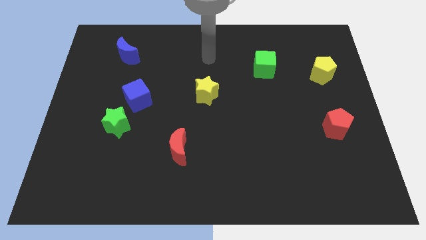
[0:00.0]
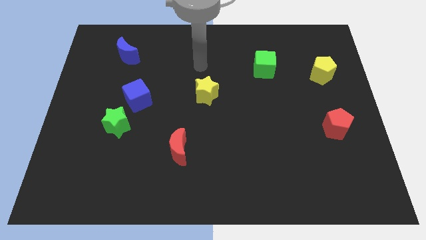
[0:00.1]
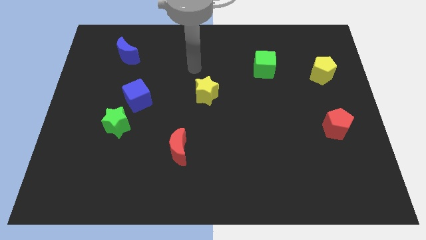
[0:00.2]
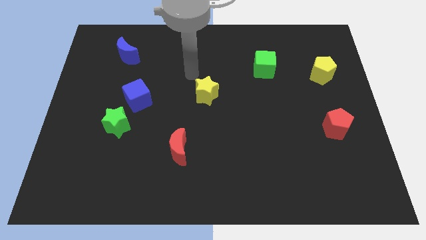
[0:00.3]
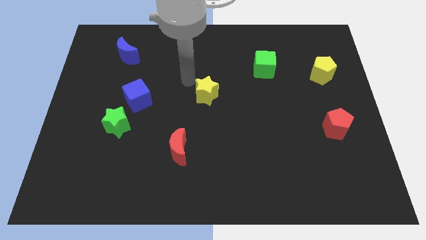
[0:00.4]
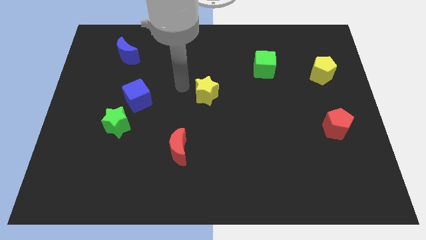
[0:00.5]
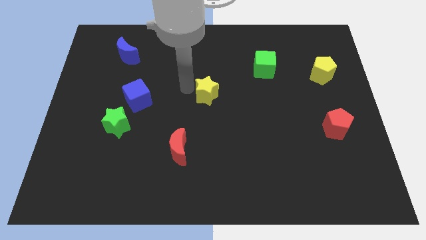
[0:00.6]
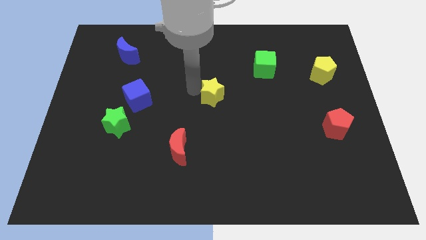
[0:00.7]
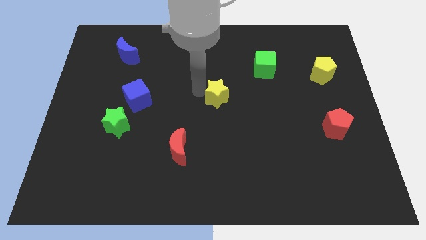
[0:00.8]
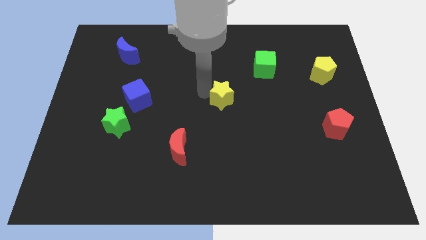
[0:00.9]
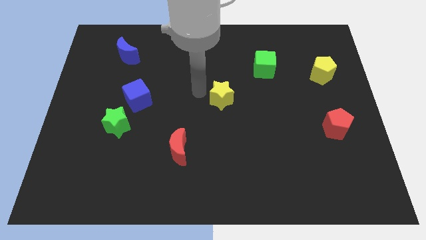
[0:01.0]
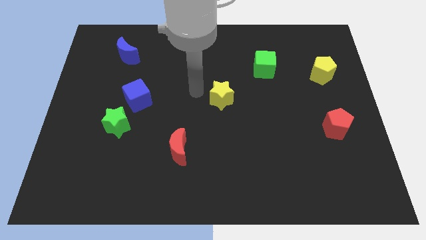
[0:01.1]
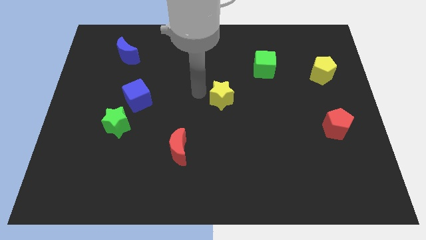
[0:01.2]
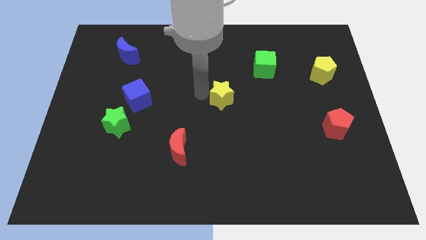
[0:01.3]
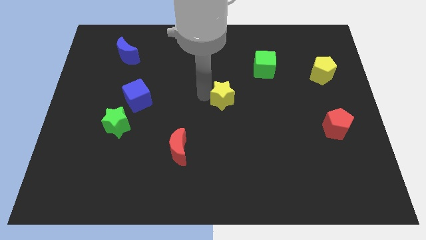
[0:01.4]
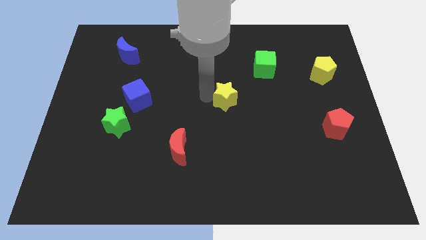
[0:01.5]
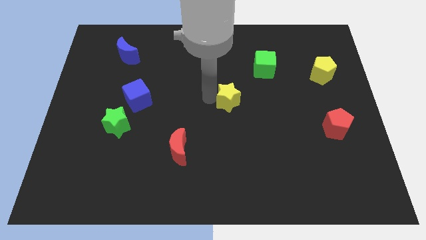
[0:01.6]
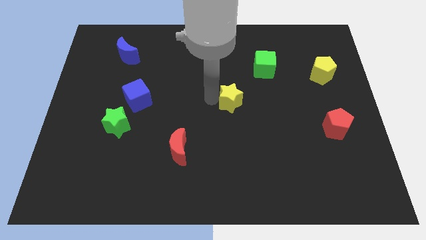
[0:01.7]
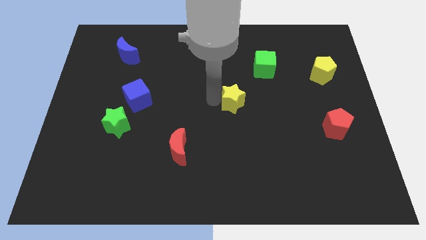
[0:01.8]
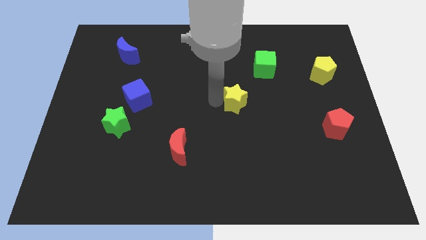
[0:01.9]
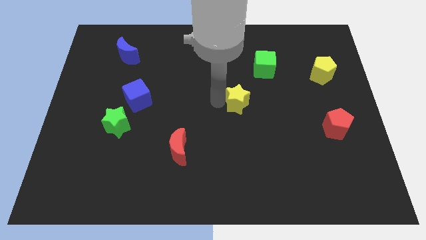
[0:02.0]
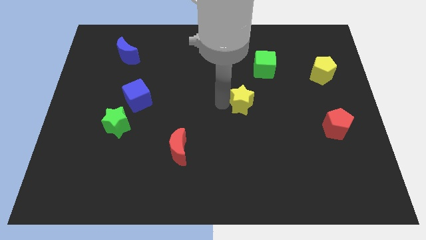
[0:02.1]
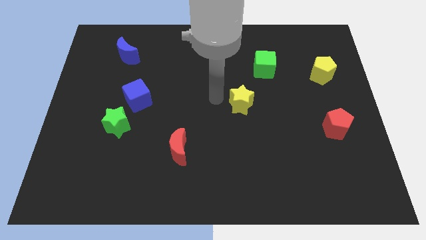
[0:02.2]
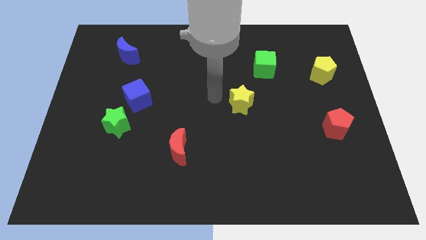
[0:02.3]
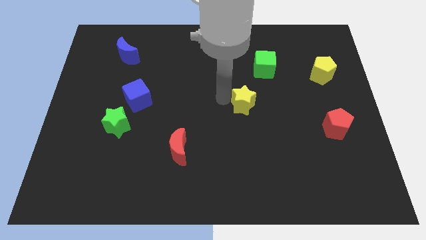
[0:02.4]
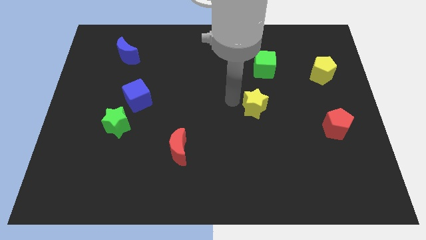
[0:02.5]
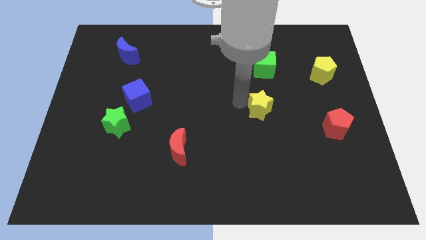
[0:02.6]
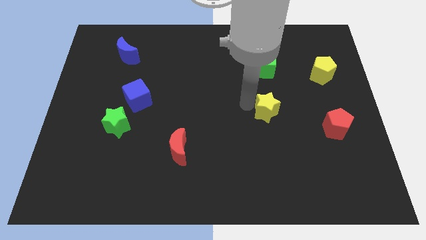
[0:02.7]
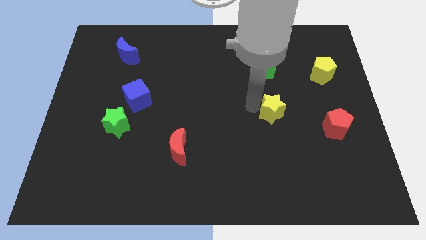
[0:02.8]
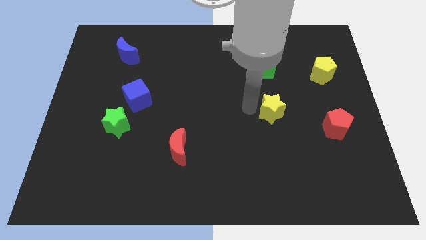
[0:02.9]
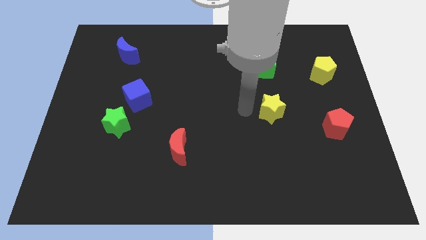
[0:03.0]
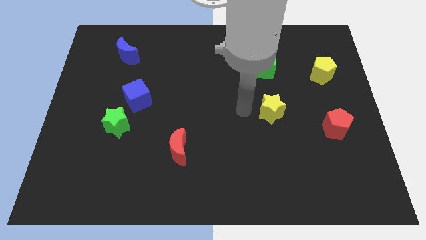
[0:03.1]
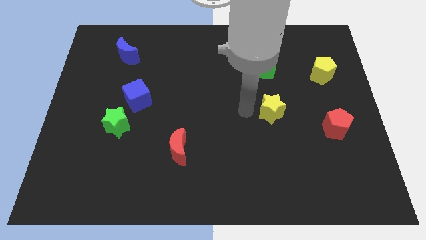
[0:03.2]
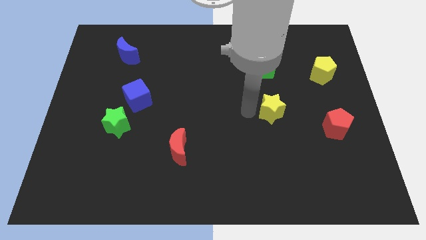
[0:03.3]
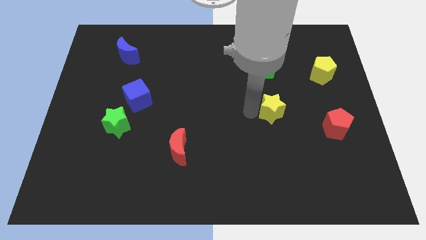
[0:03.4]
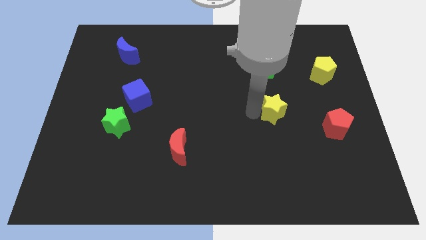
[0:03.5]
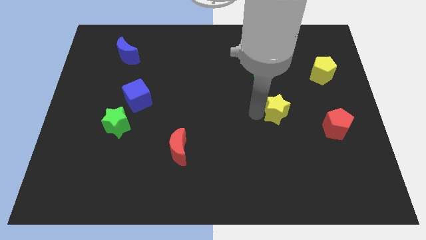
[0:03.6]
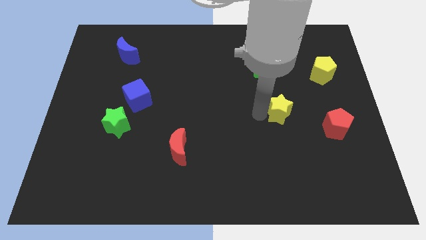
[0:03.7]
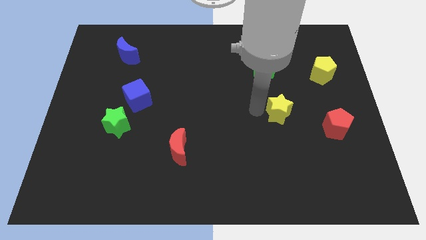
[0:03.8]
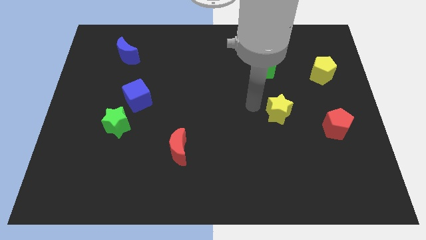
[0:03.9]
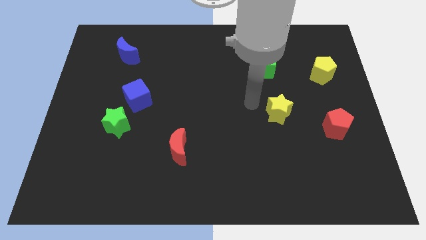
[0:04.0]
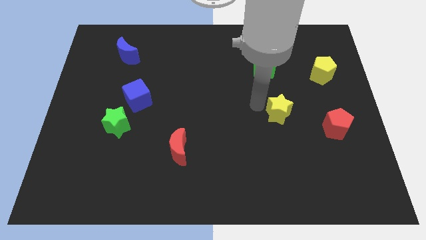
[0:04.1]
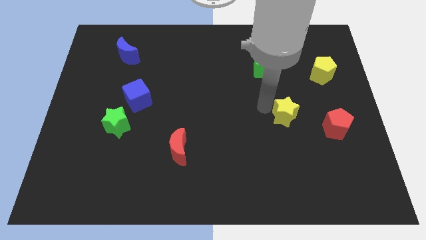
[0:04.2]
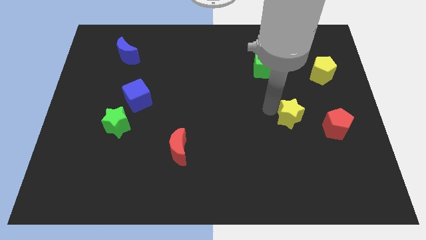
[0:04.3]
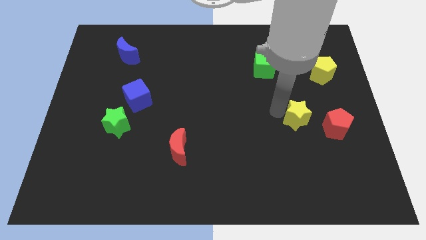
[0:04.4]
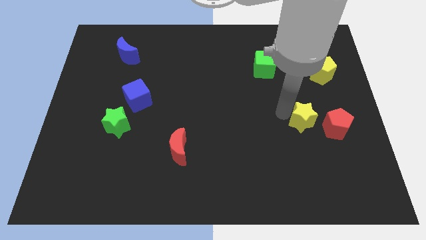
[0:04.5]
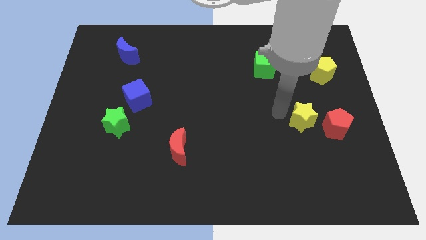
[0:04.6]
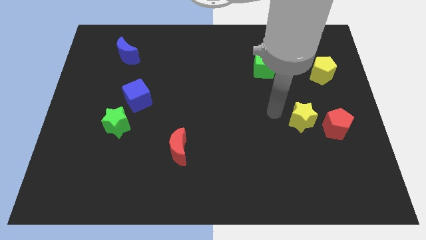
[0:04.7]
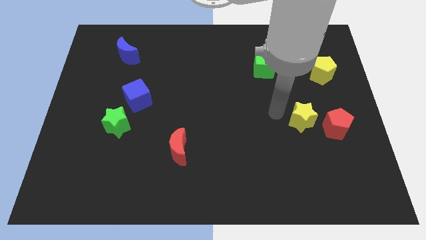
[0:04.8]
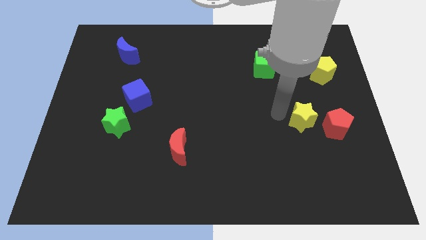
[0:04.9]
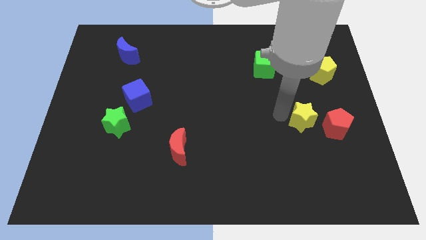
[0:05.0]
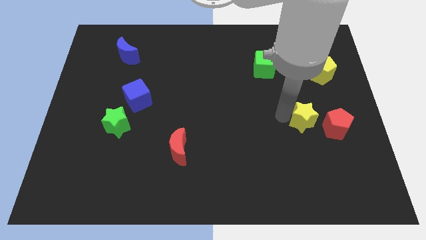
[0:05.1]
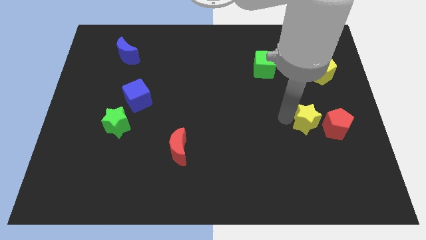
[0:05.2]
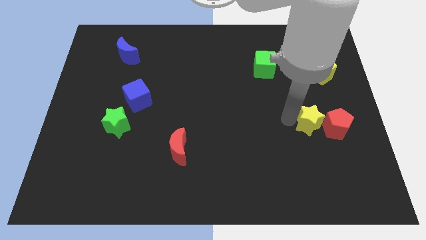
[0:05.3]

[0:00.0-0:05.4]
move the yellow star to the red pentagon

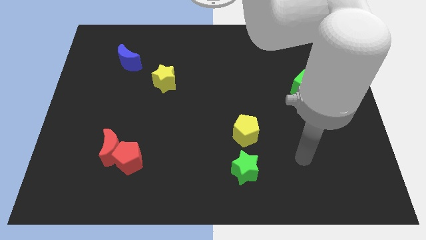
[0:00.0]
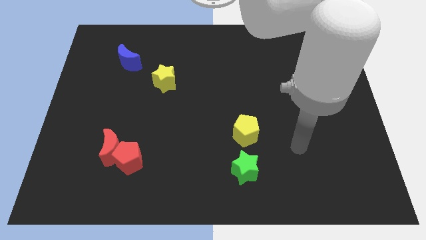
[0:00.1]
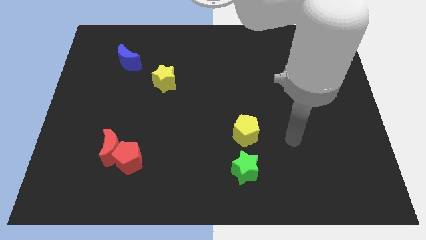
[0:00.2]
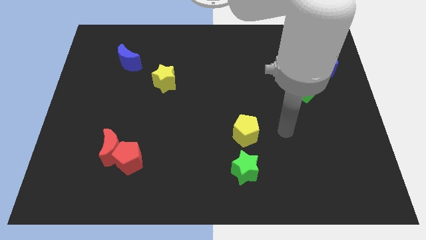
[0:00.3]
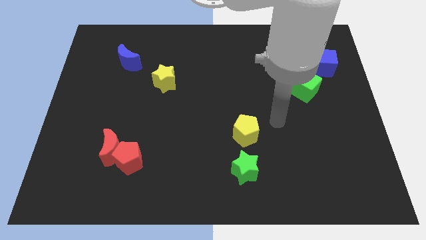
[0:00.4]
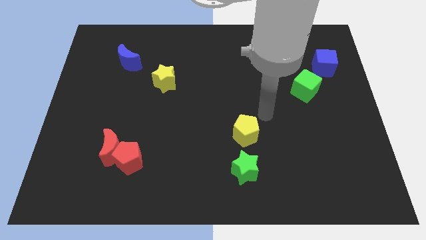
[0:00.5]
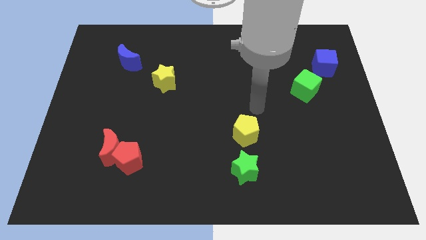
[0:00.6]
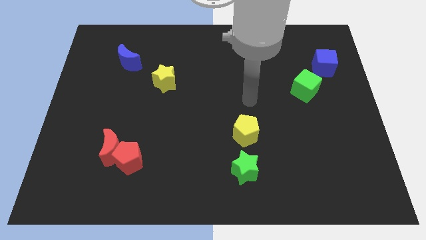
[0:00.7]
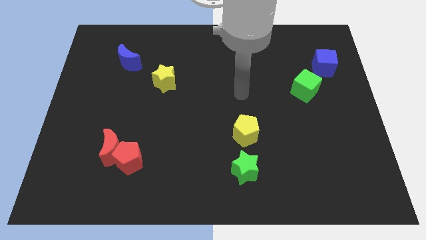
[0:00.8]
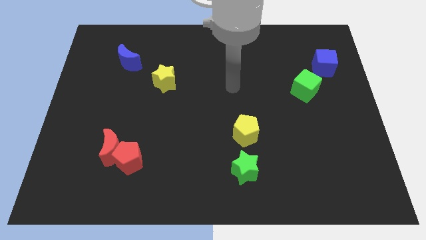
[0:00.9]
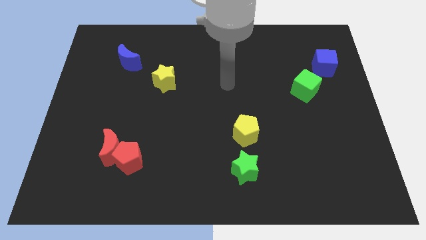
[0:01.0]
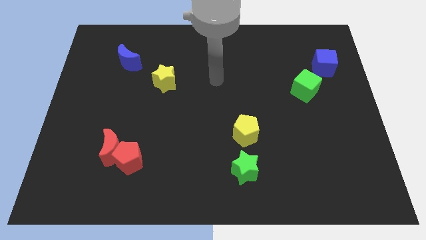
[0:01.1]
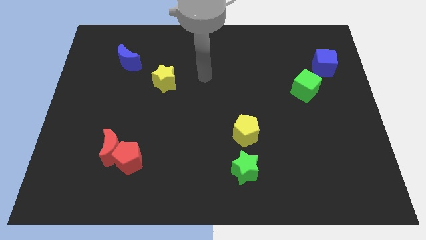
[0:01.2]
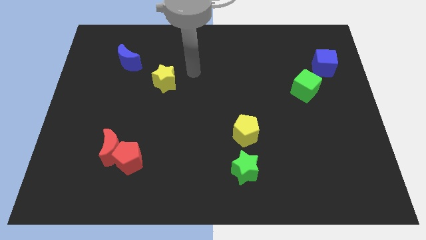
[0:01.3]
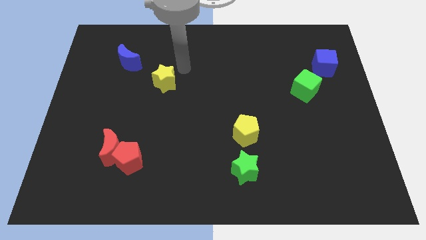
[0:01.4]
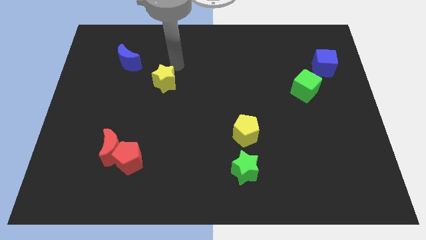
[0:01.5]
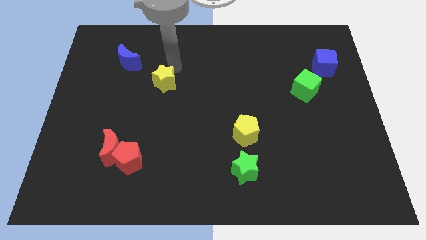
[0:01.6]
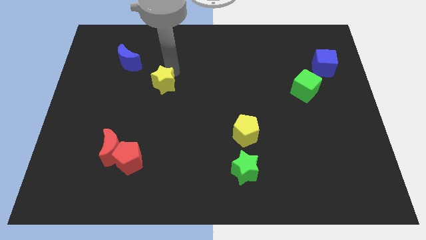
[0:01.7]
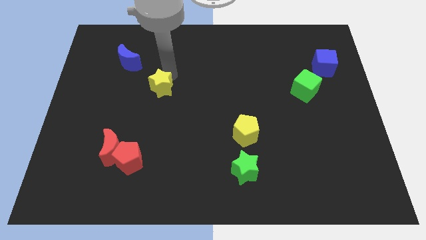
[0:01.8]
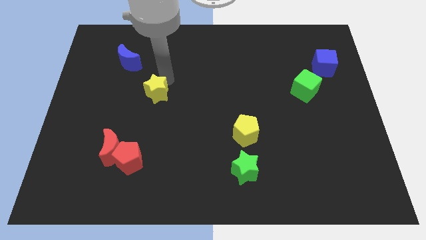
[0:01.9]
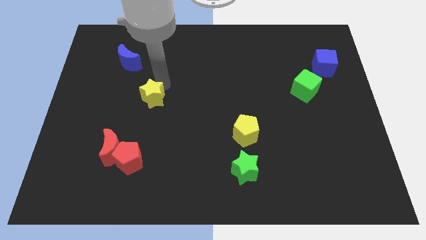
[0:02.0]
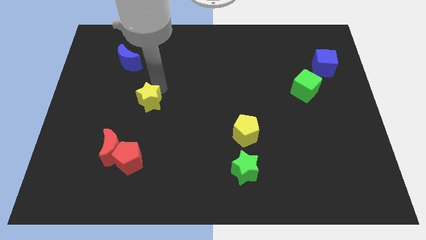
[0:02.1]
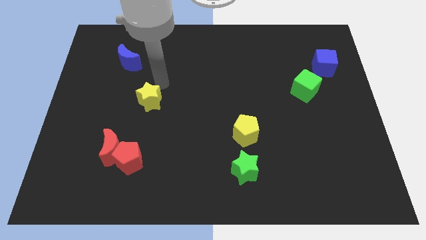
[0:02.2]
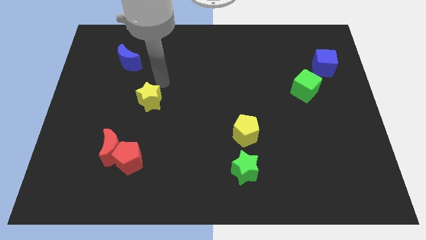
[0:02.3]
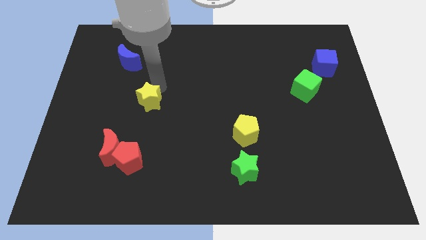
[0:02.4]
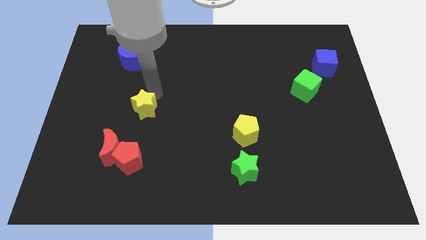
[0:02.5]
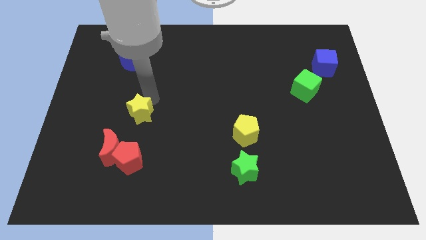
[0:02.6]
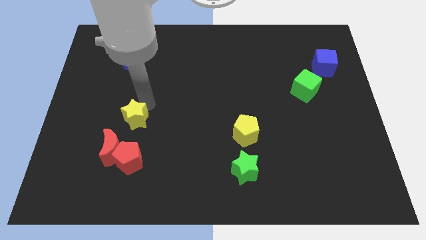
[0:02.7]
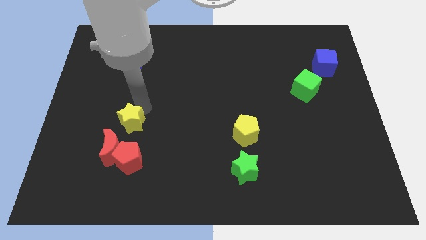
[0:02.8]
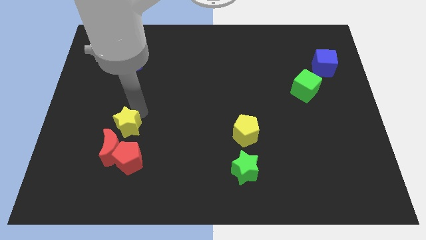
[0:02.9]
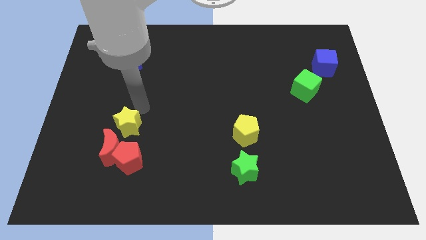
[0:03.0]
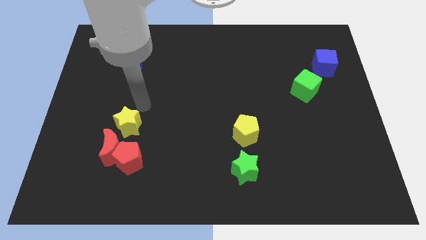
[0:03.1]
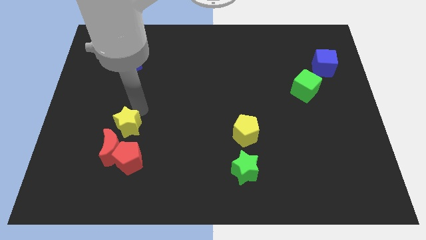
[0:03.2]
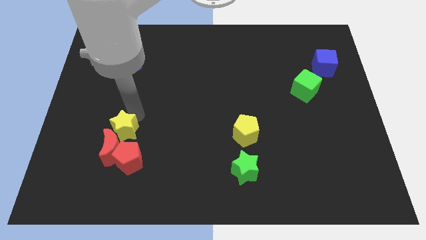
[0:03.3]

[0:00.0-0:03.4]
slide the yellow star to the red moon
